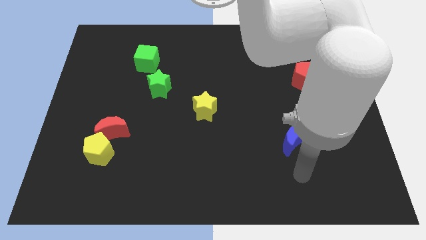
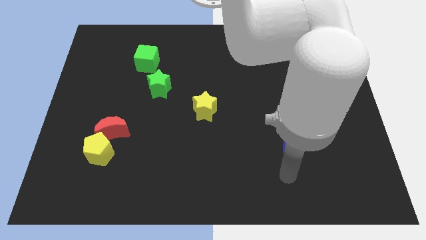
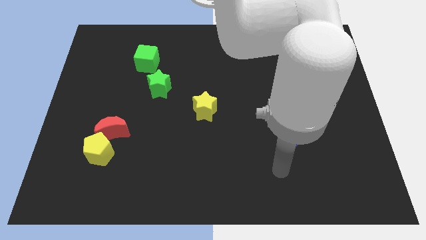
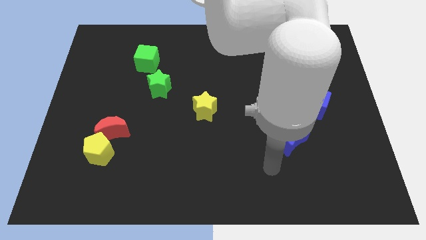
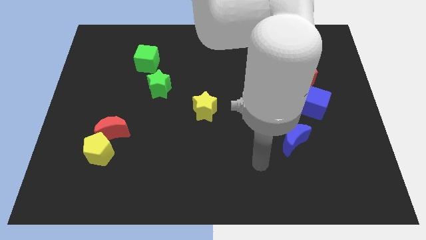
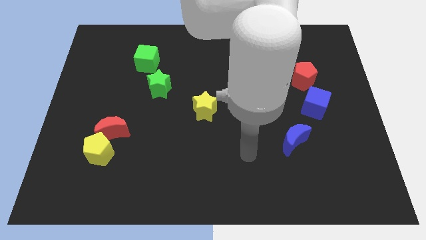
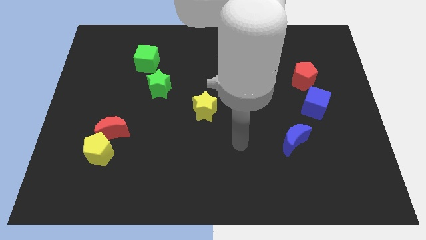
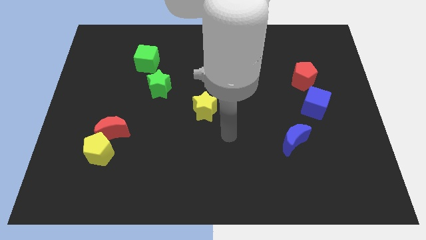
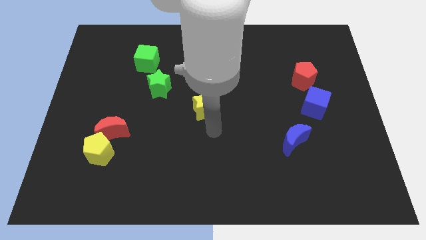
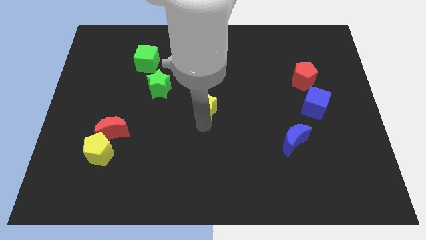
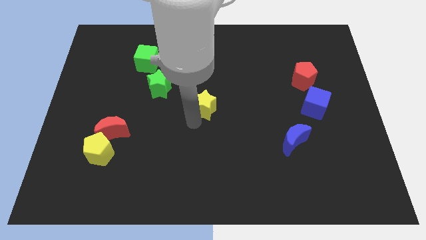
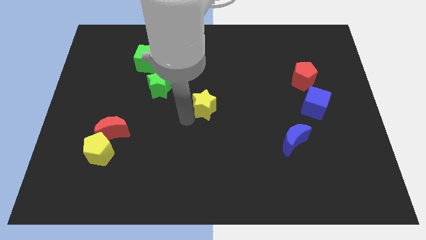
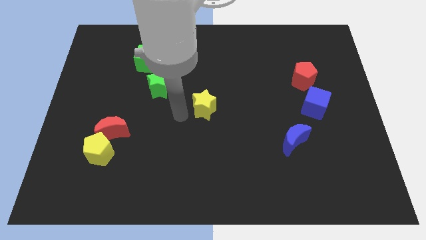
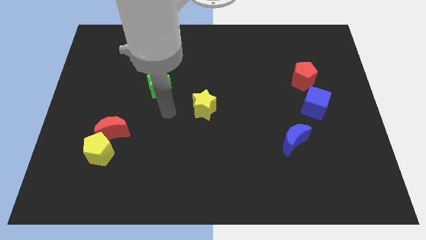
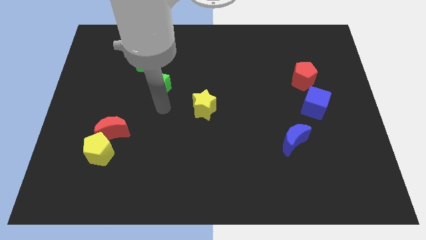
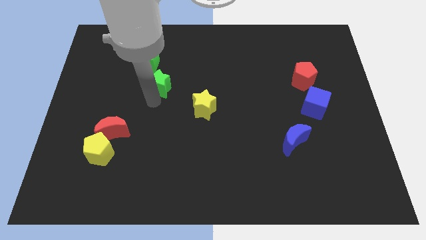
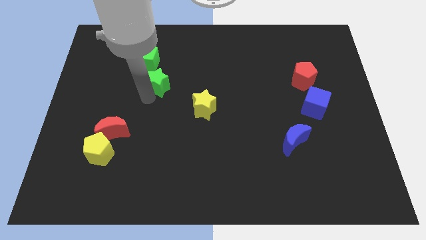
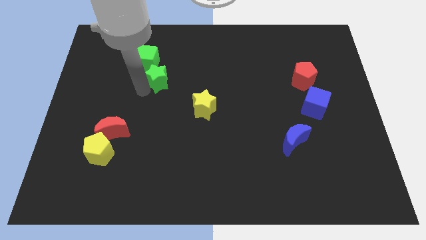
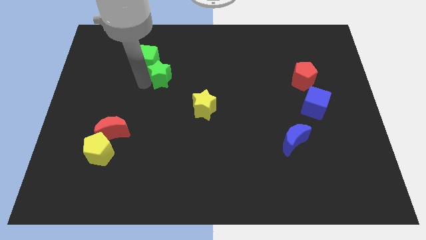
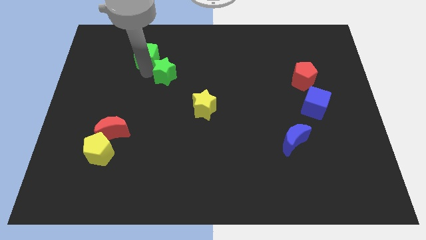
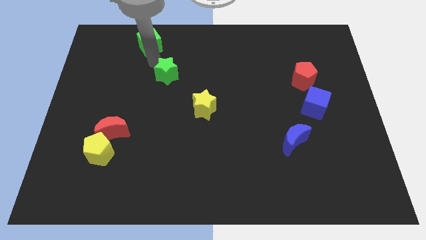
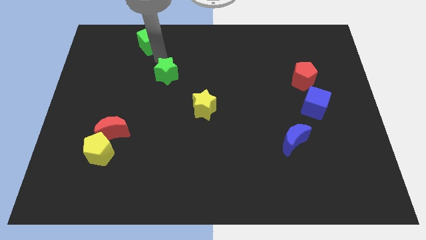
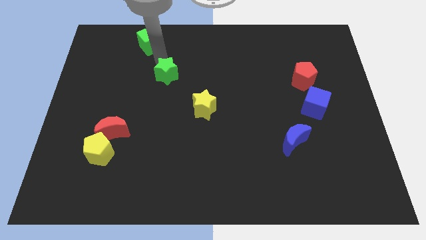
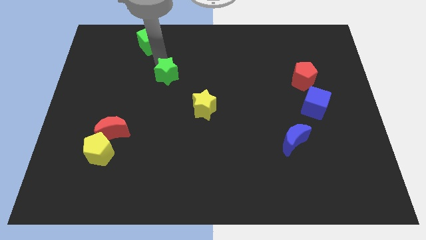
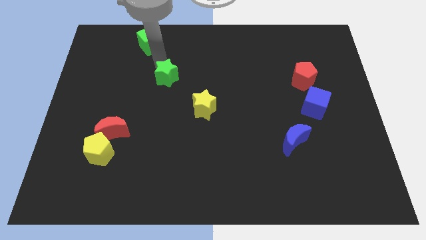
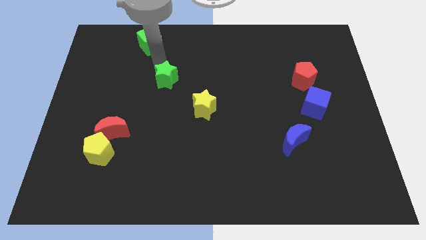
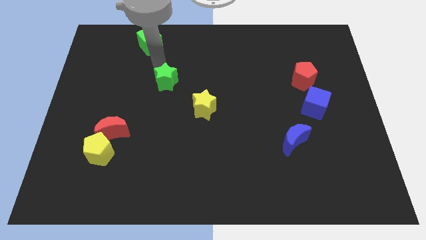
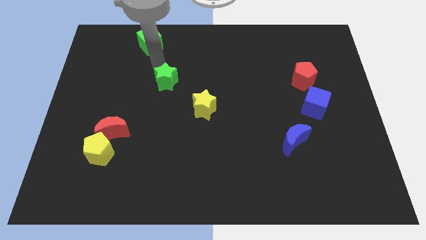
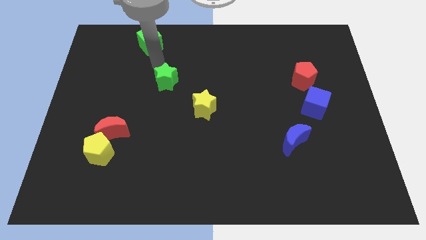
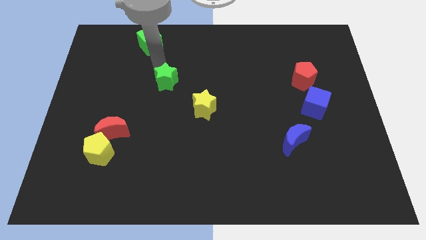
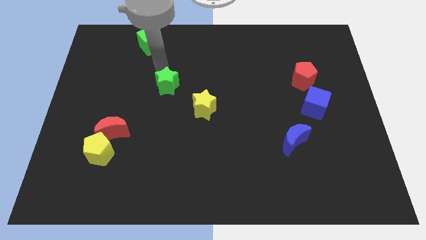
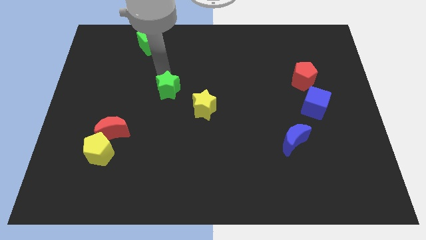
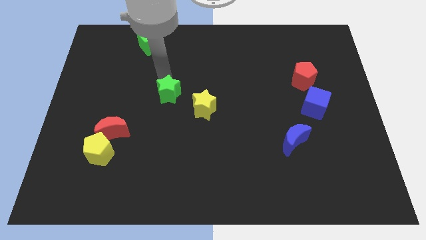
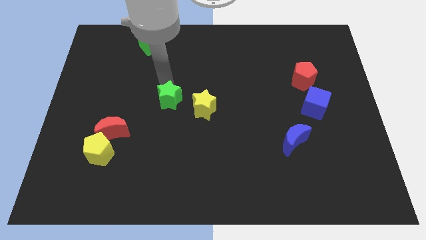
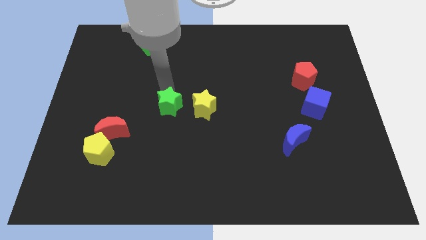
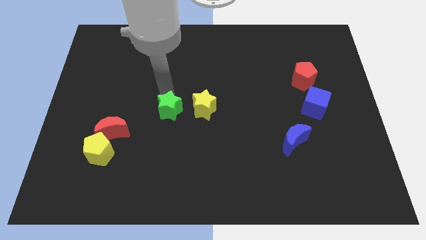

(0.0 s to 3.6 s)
move the green star somewhat diagonally downwards and to the right

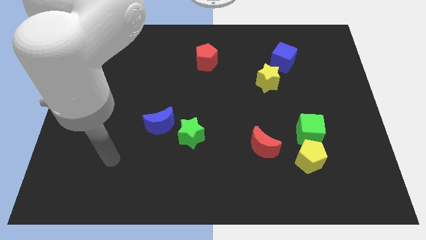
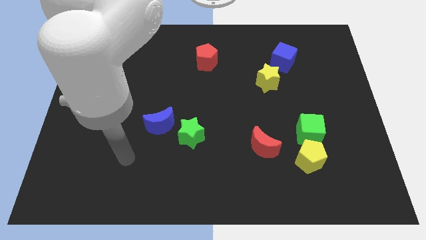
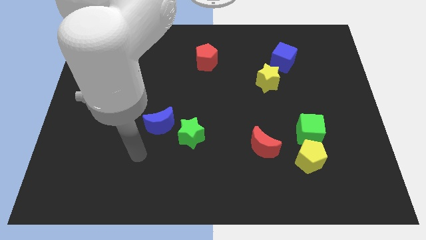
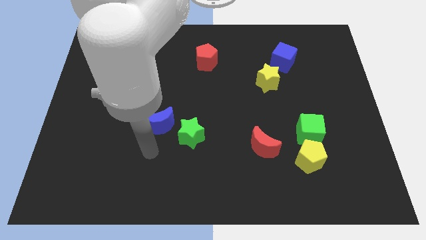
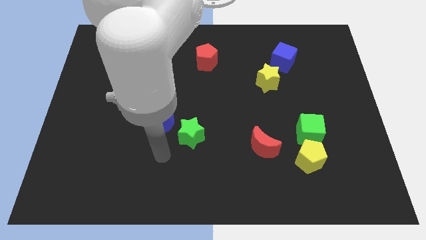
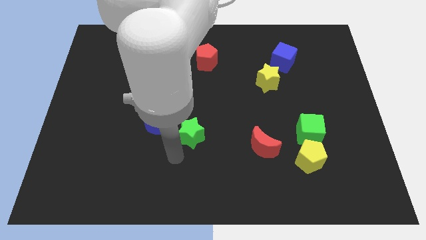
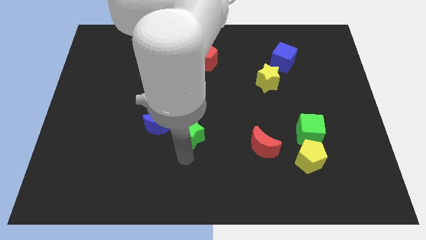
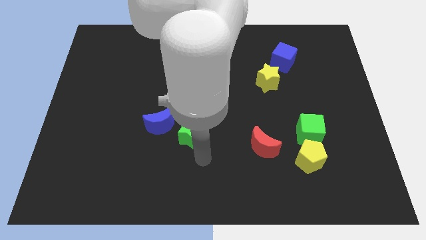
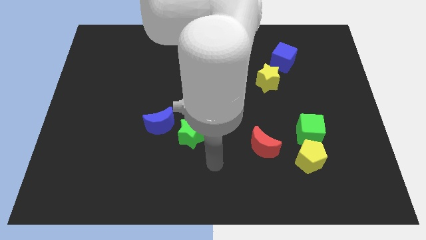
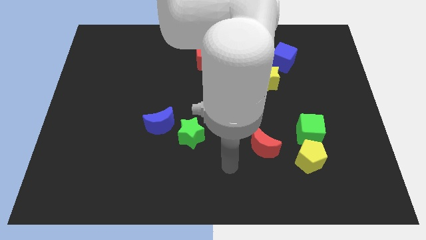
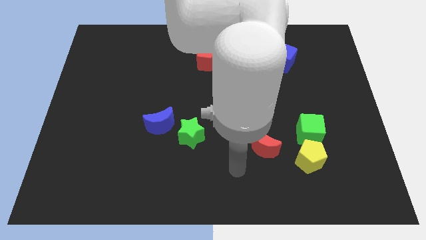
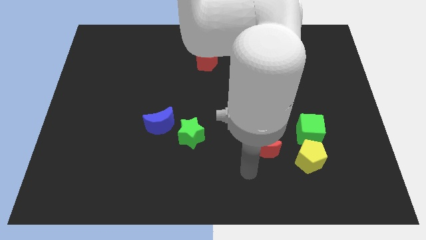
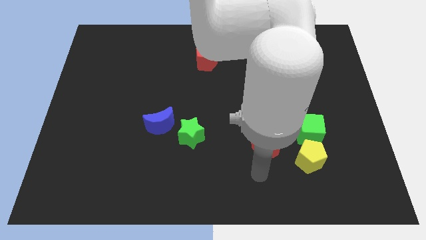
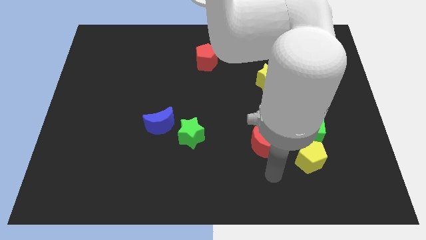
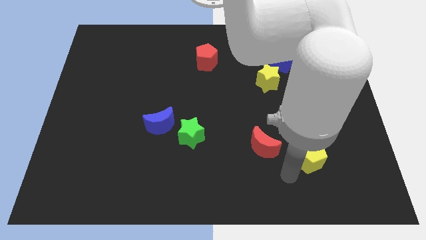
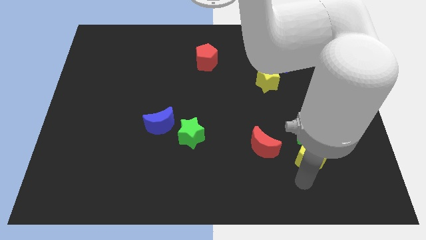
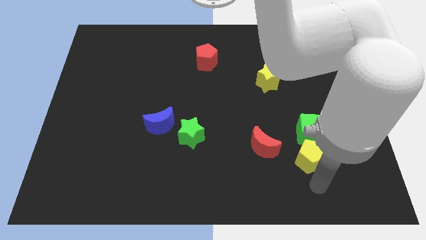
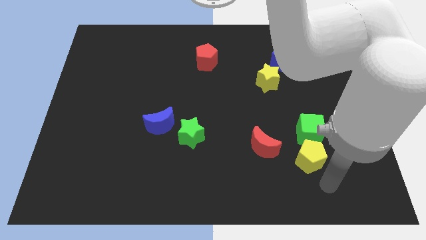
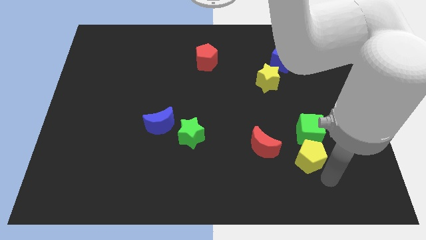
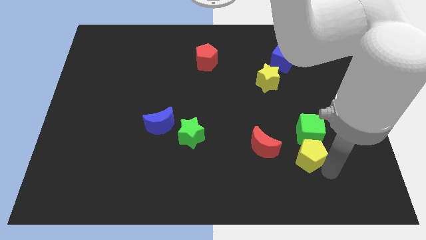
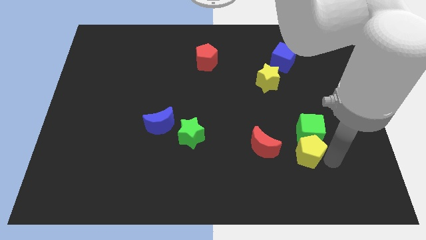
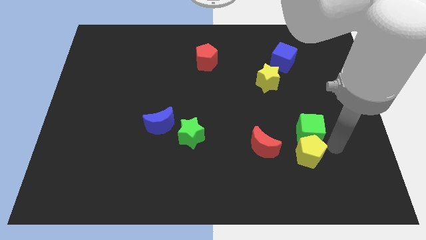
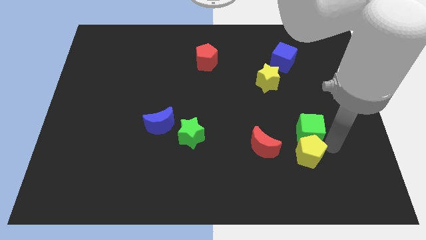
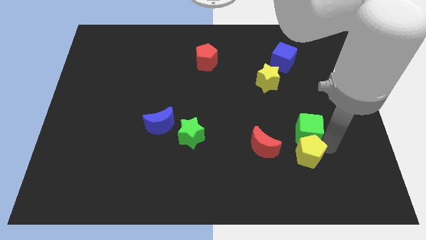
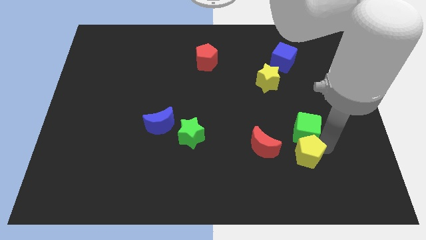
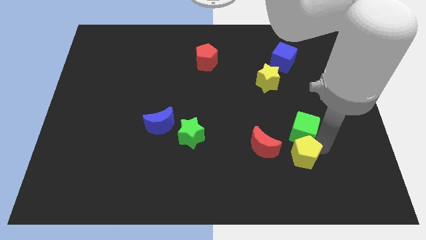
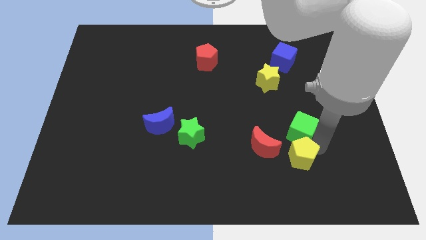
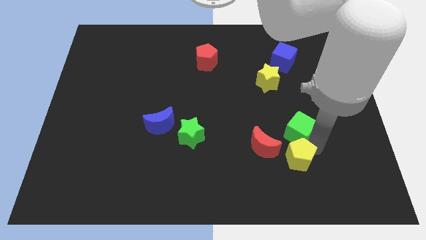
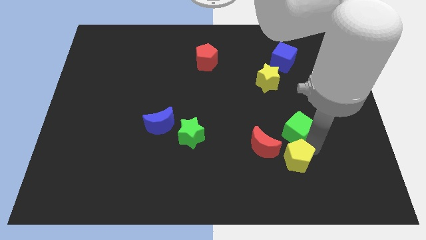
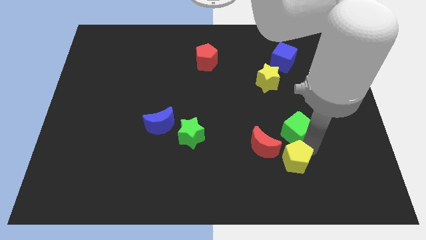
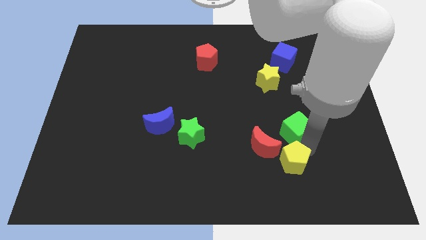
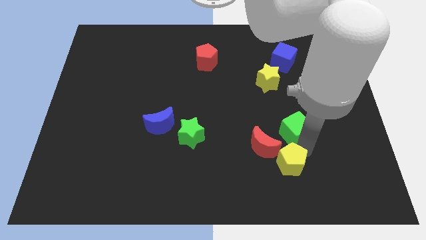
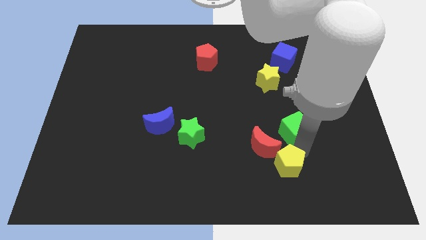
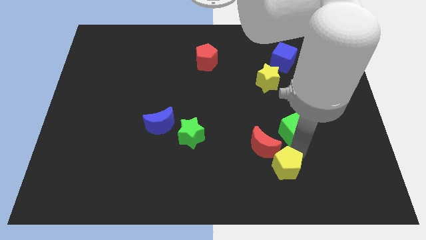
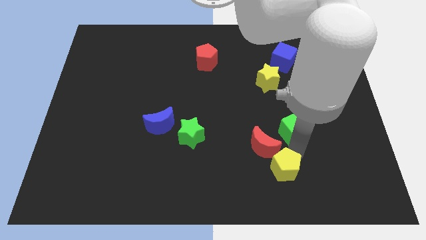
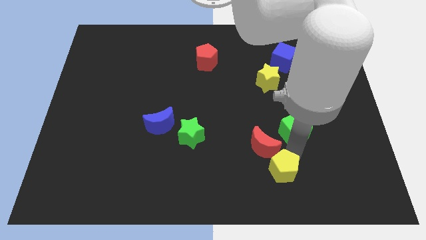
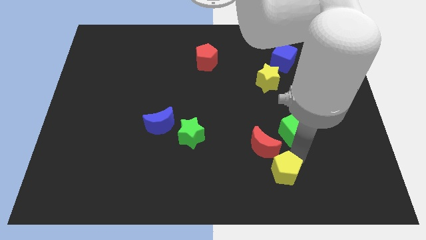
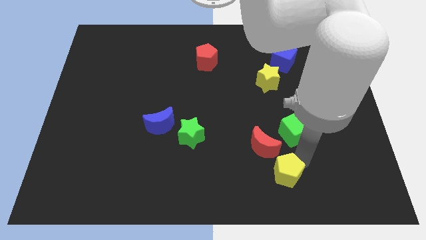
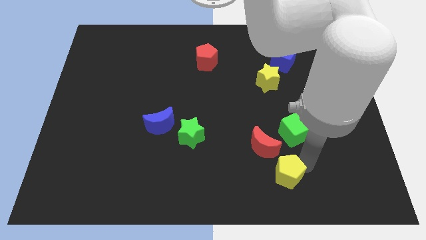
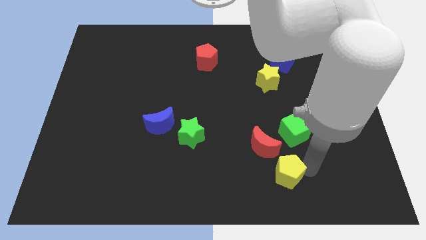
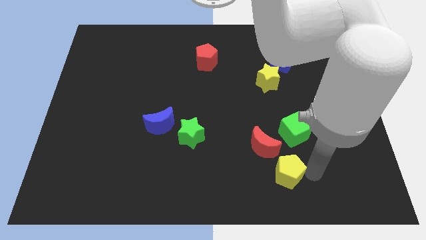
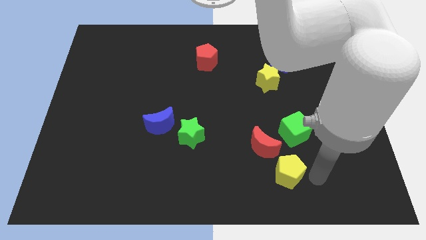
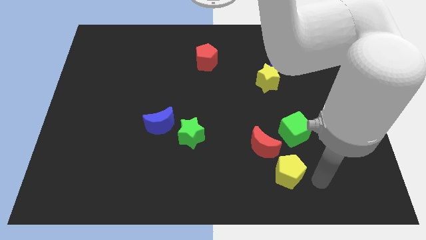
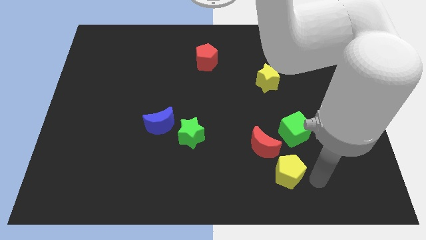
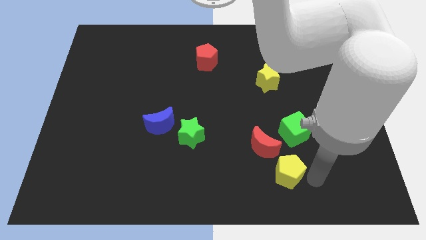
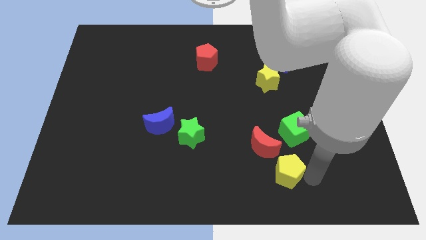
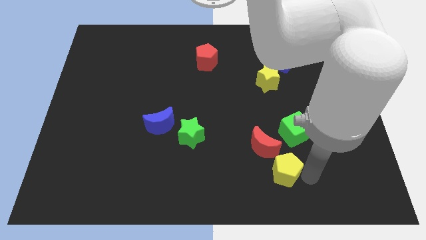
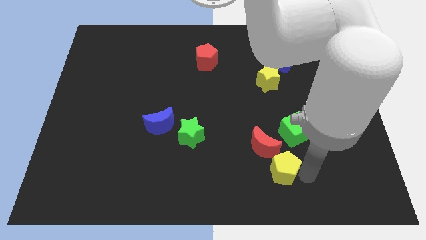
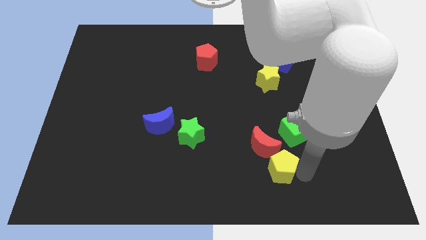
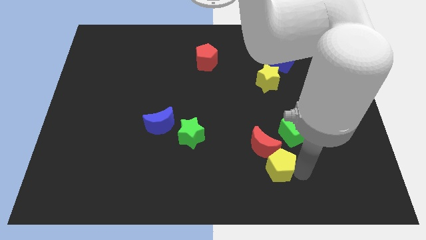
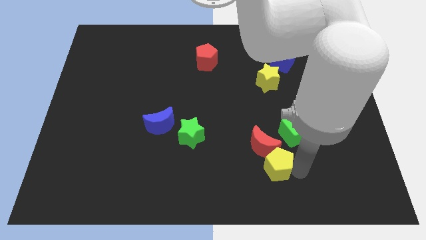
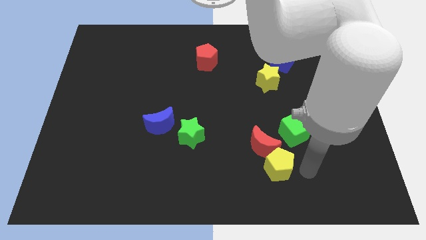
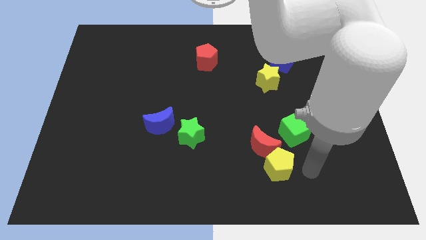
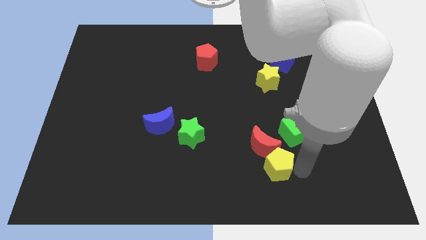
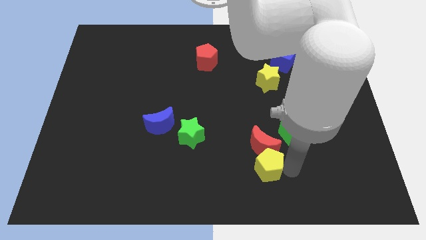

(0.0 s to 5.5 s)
slide the yellow pentagon a little left
